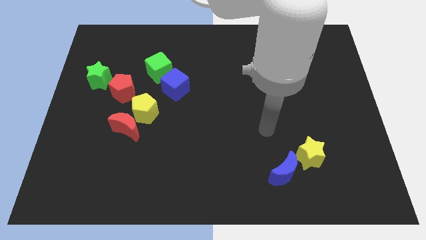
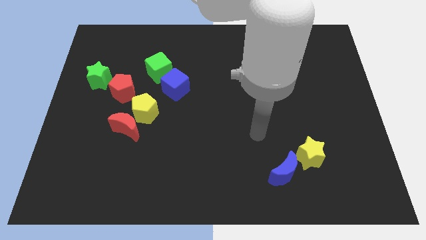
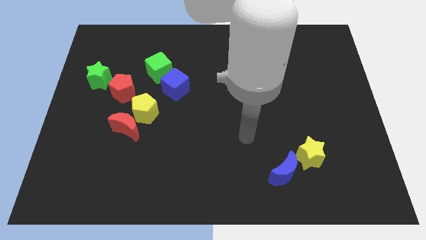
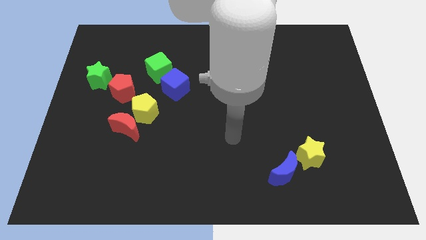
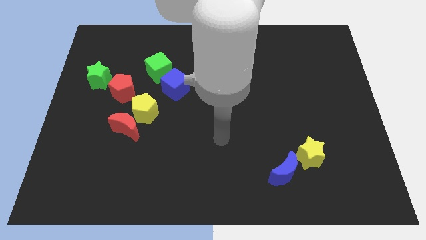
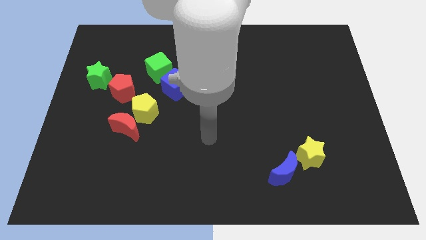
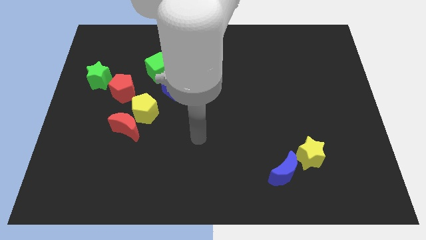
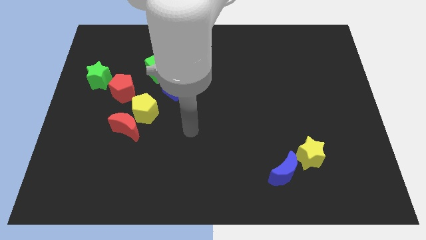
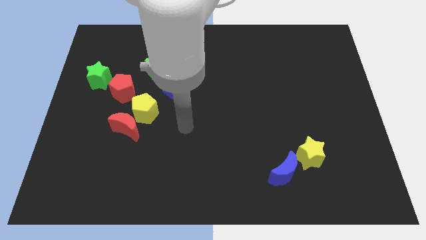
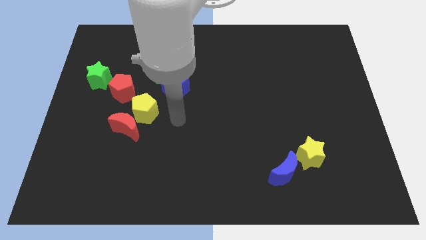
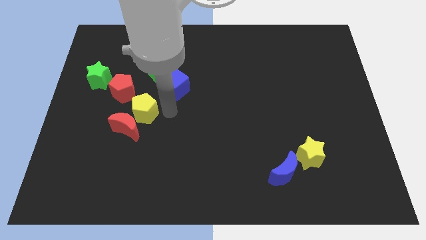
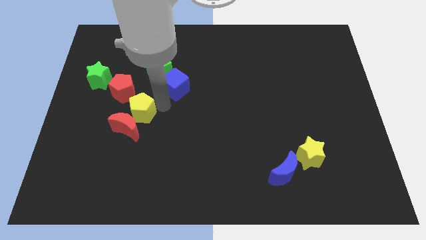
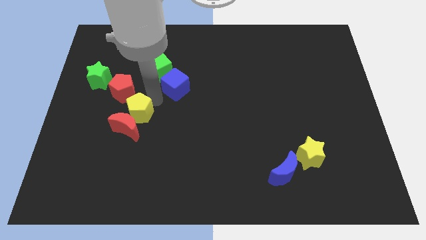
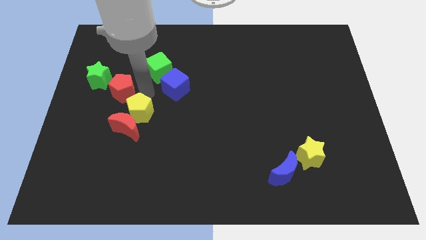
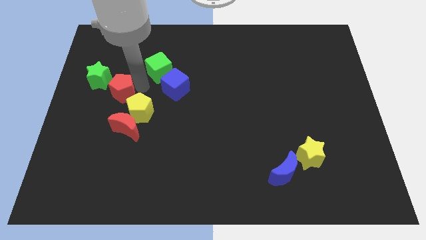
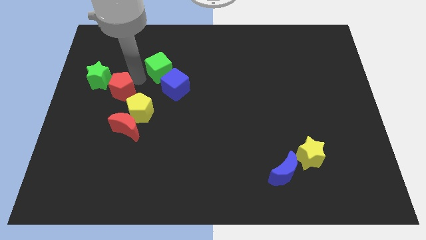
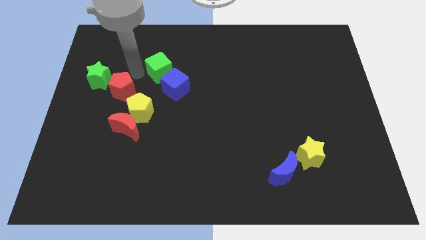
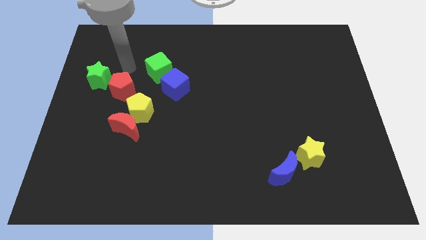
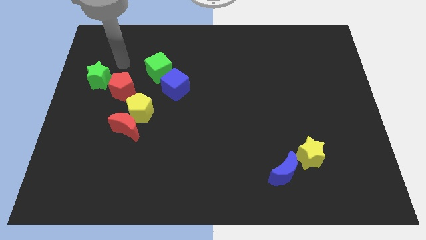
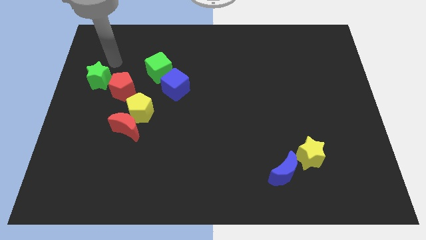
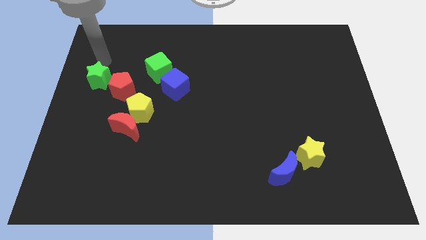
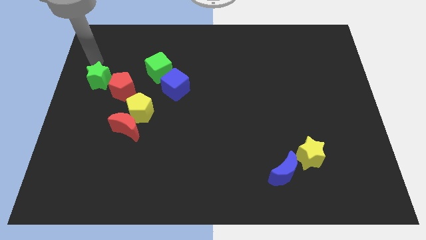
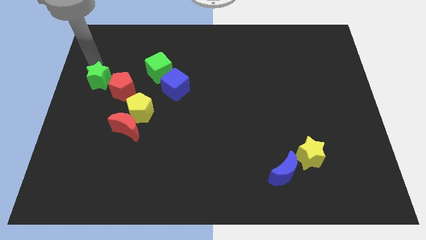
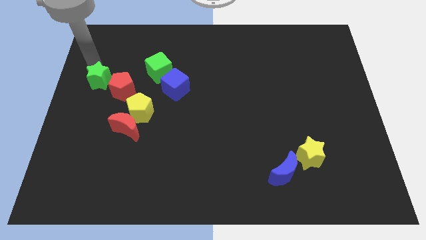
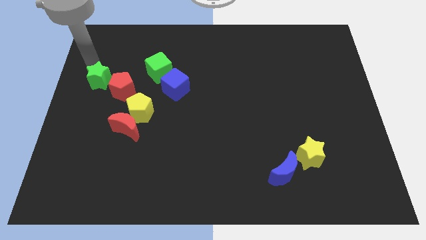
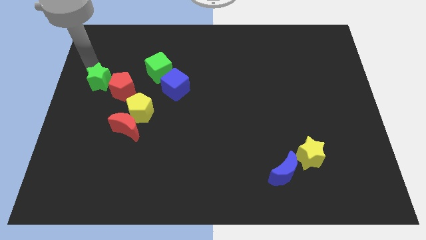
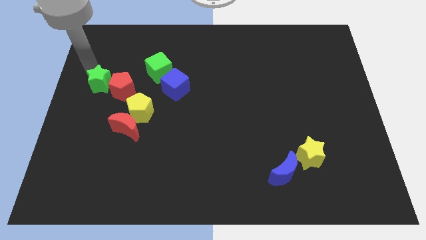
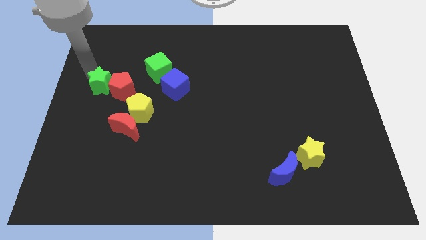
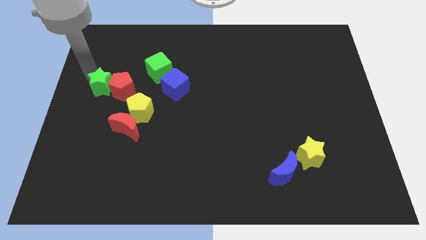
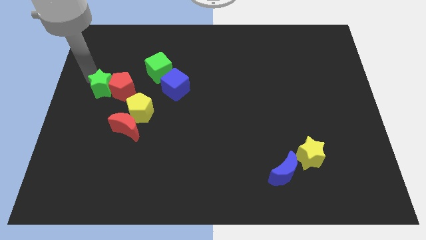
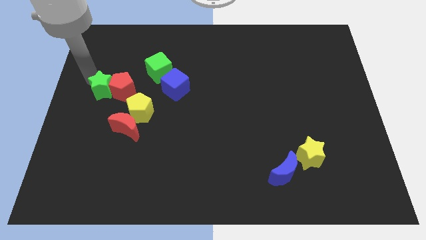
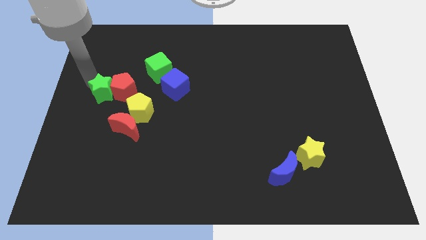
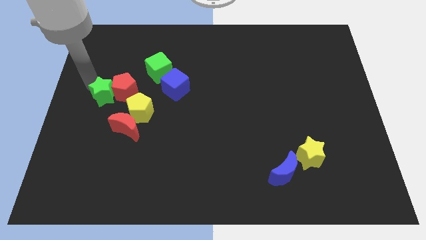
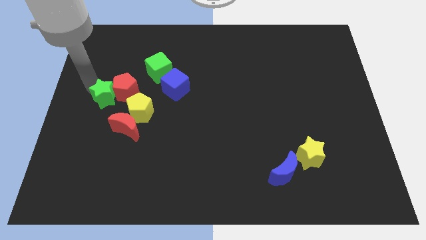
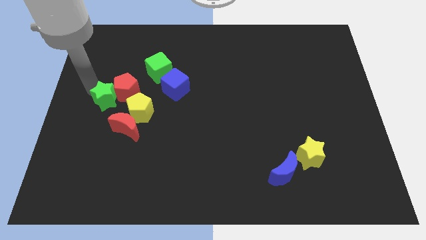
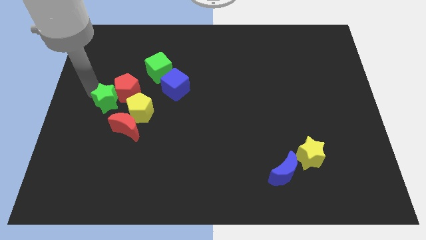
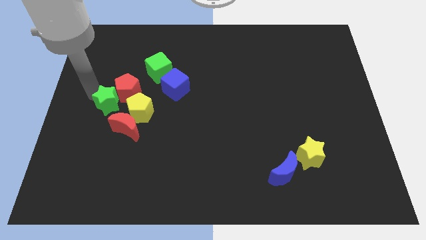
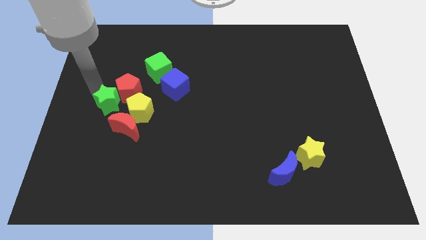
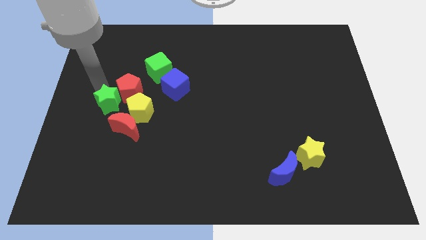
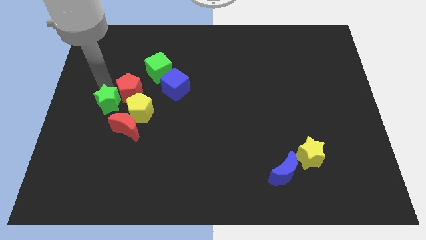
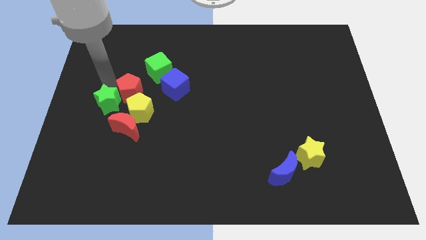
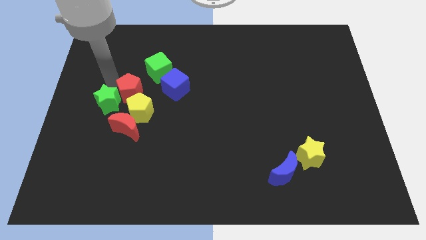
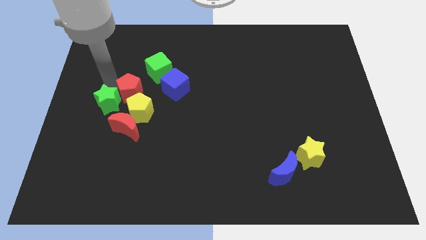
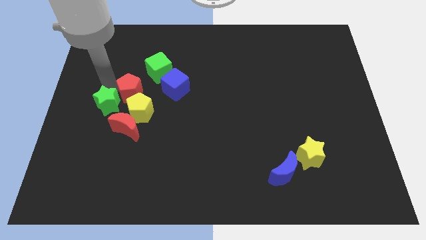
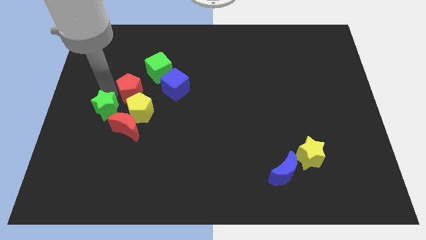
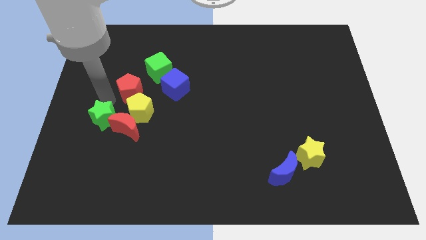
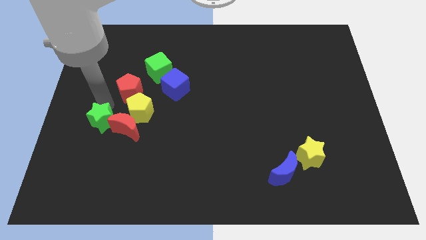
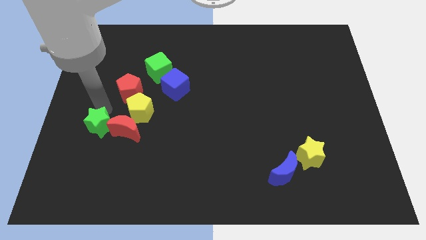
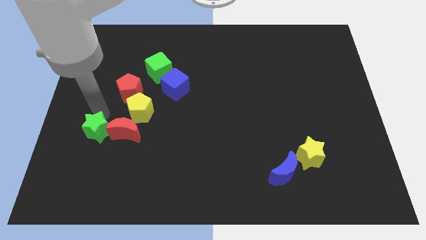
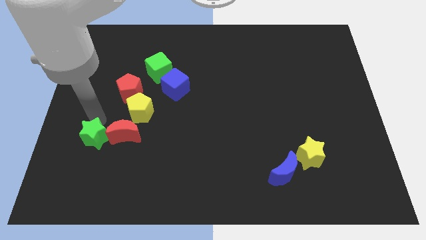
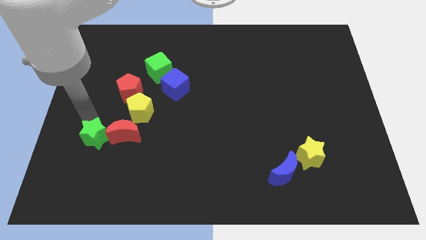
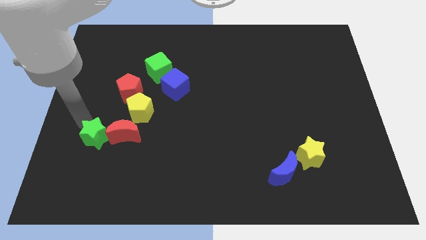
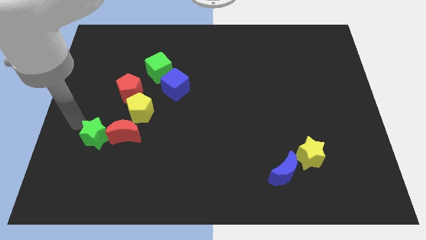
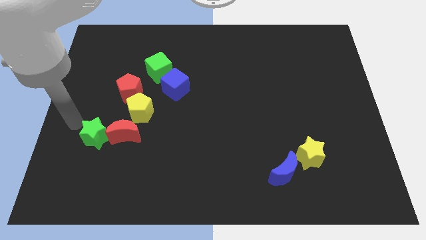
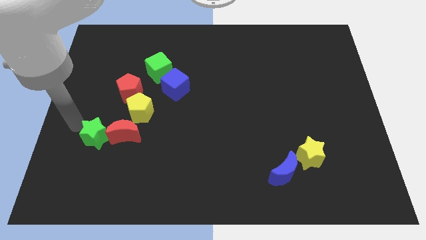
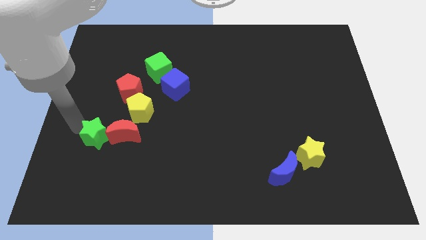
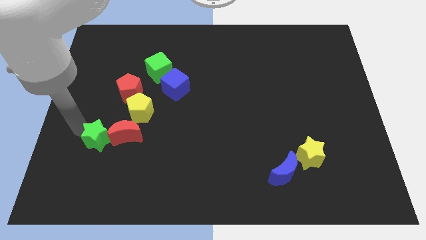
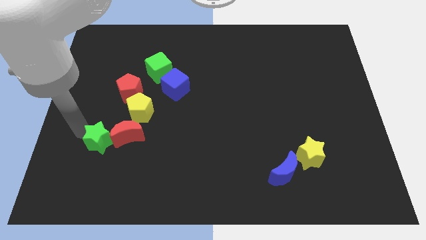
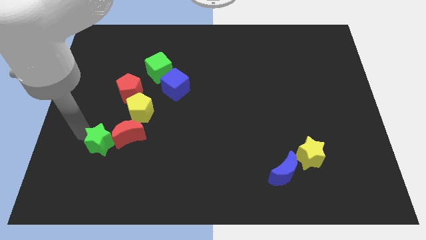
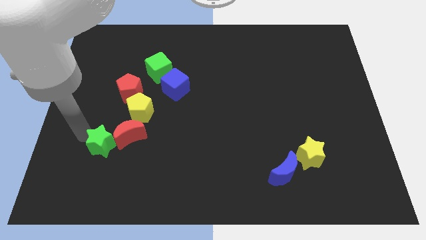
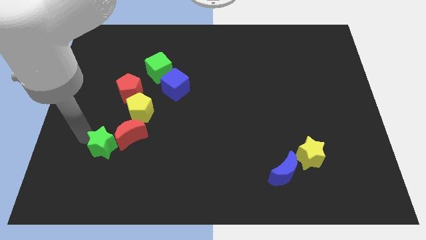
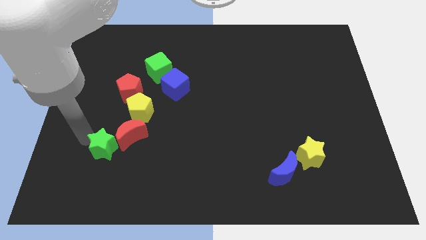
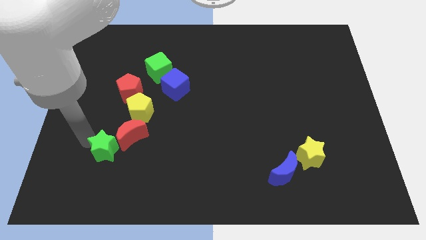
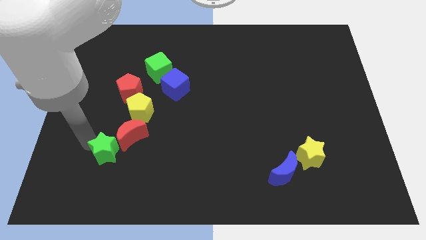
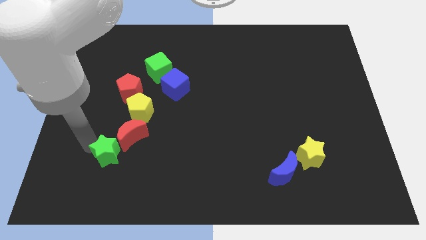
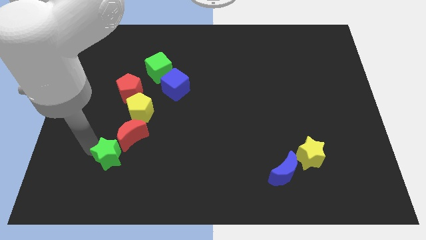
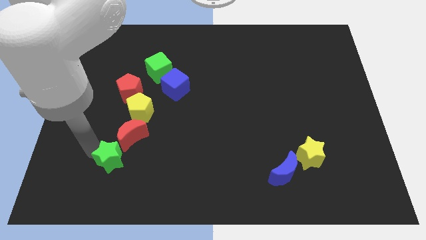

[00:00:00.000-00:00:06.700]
slide the green star below the yellow pentagon
